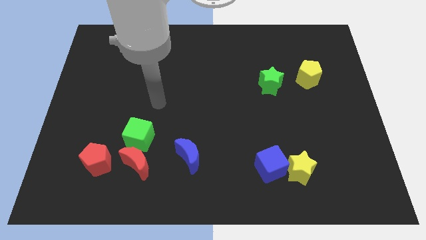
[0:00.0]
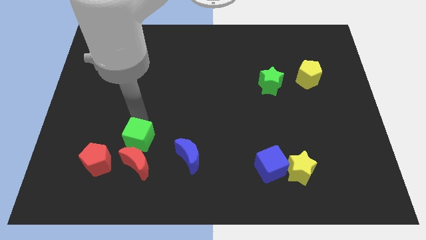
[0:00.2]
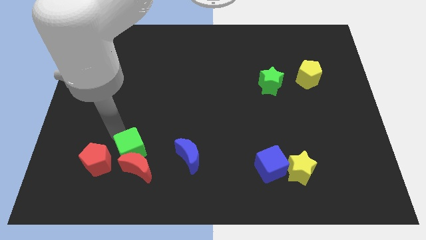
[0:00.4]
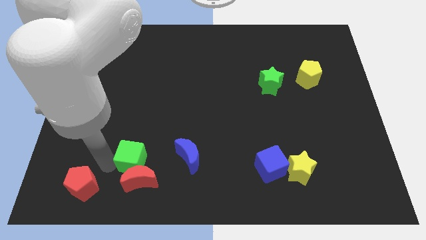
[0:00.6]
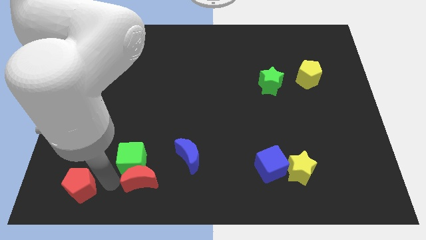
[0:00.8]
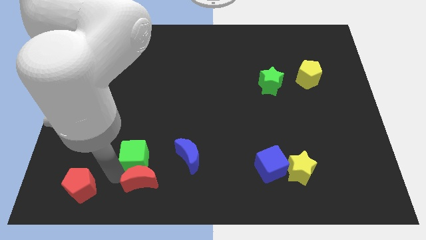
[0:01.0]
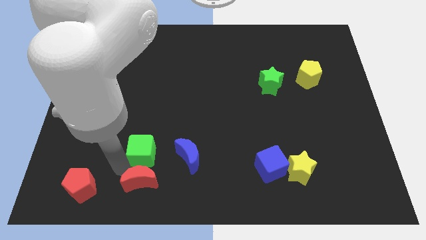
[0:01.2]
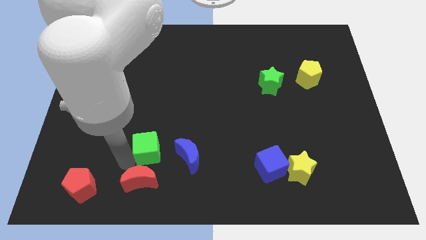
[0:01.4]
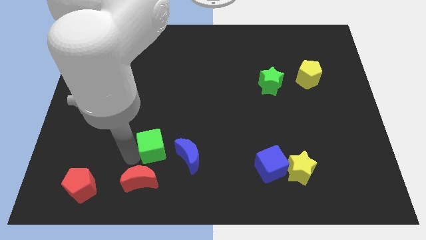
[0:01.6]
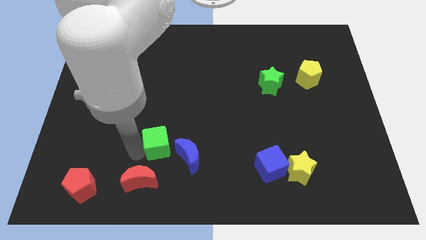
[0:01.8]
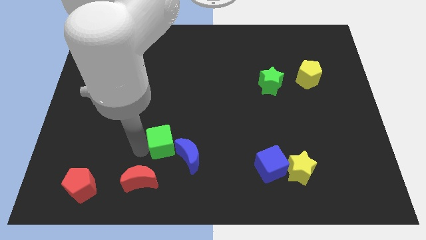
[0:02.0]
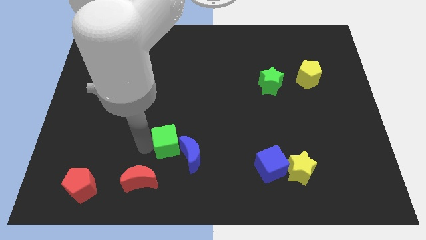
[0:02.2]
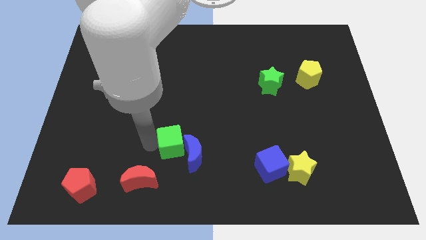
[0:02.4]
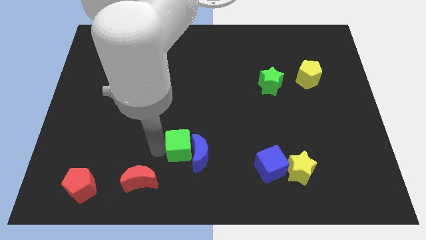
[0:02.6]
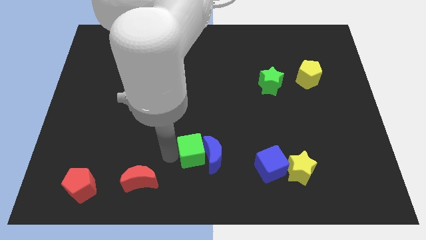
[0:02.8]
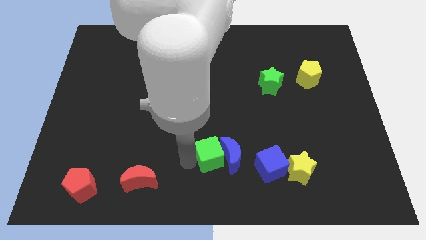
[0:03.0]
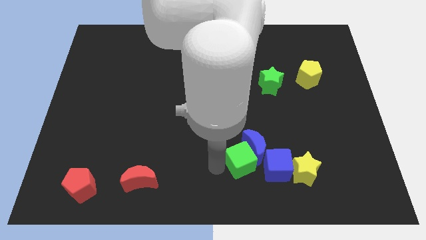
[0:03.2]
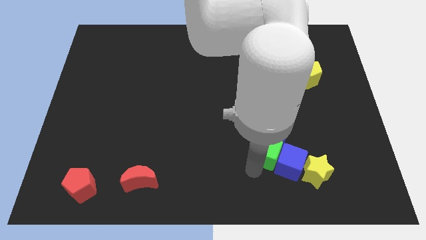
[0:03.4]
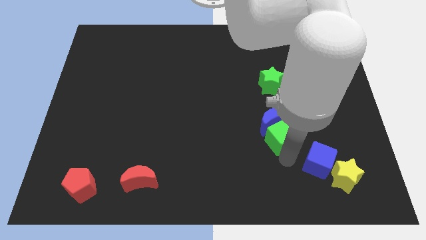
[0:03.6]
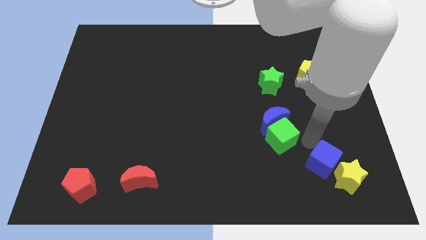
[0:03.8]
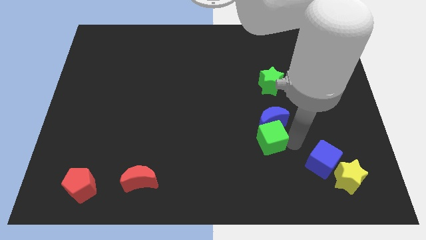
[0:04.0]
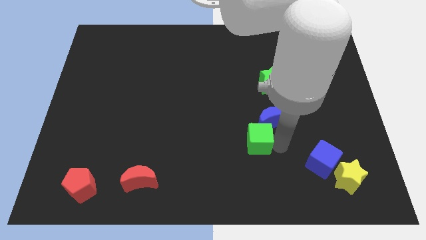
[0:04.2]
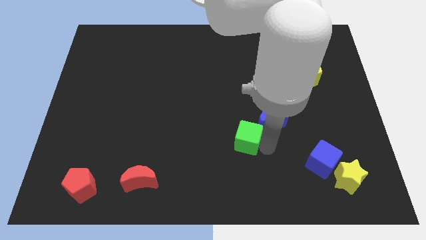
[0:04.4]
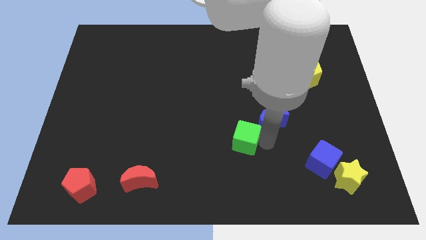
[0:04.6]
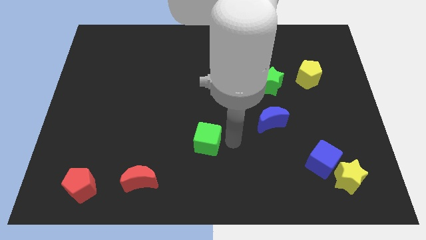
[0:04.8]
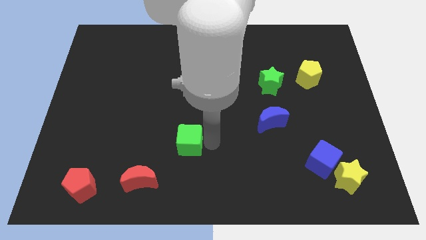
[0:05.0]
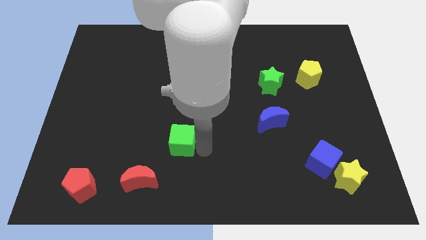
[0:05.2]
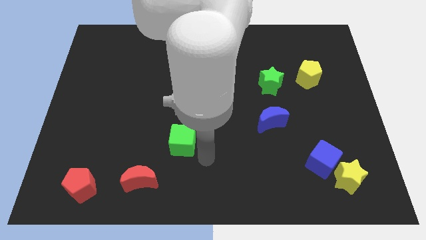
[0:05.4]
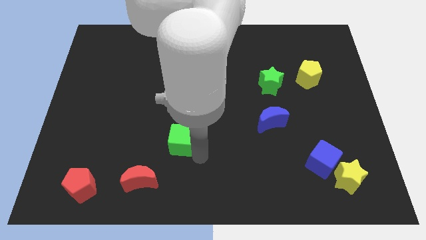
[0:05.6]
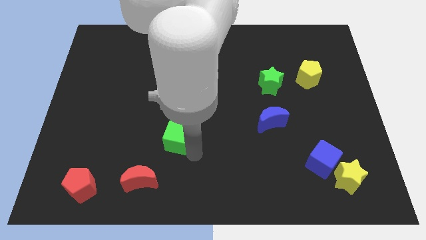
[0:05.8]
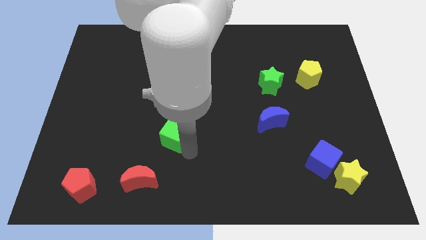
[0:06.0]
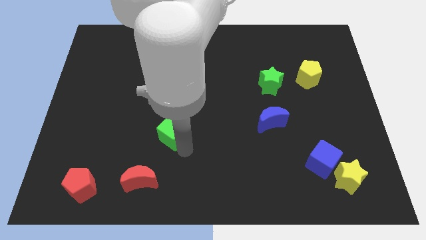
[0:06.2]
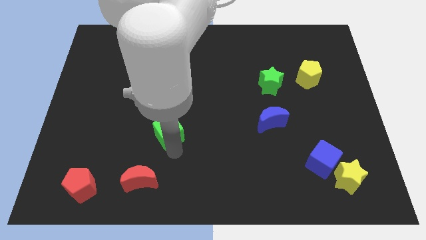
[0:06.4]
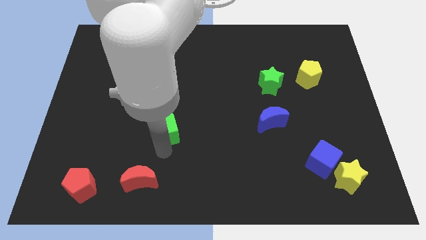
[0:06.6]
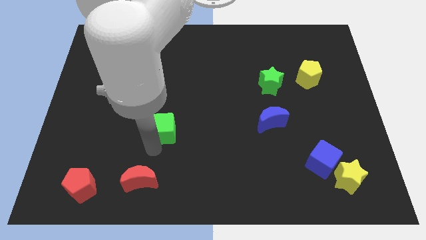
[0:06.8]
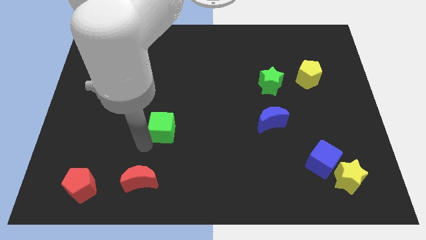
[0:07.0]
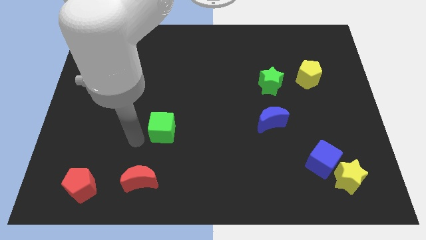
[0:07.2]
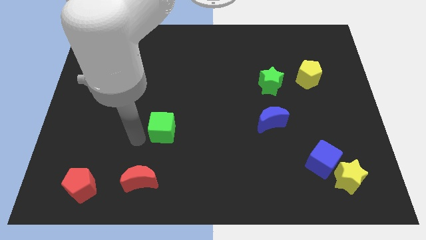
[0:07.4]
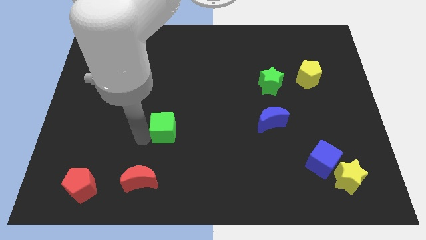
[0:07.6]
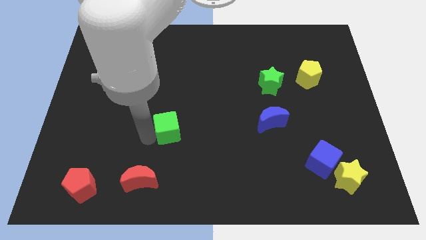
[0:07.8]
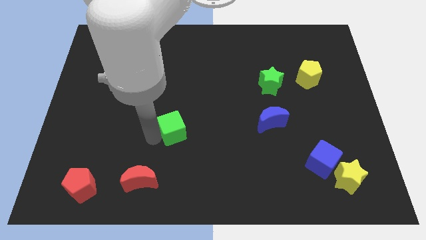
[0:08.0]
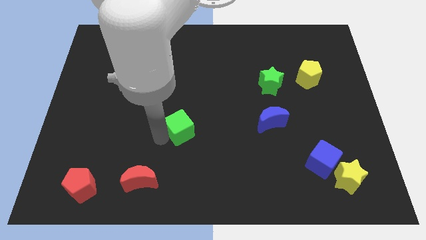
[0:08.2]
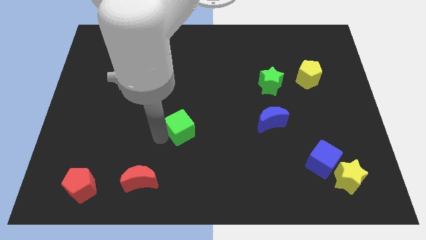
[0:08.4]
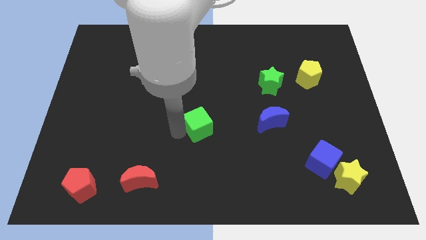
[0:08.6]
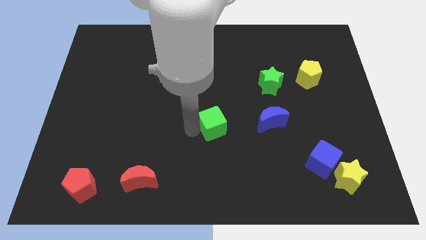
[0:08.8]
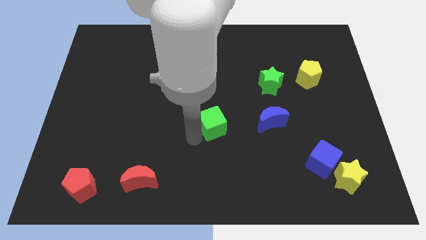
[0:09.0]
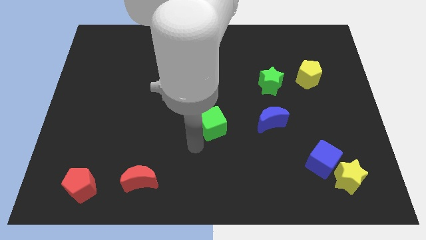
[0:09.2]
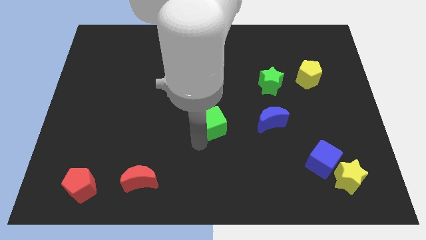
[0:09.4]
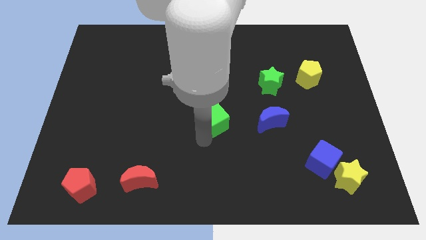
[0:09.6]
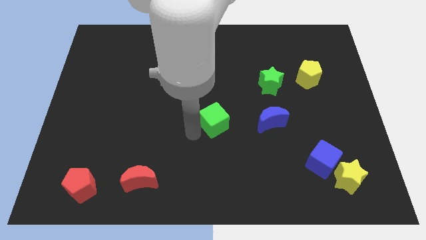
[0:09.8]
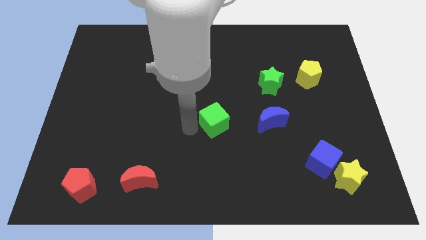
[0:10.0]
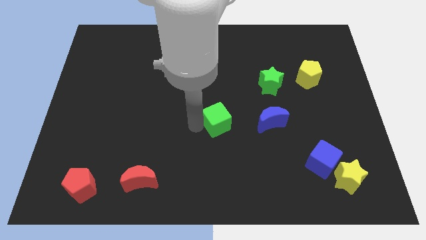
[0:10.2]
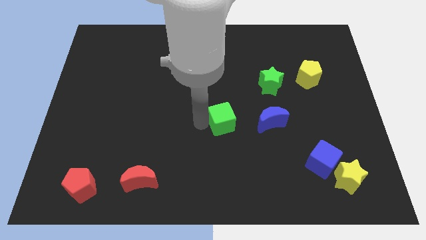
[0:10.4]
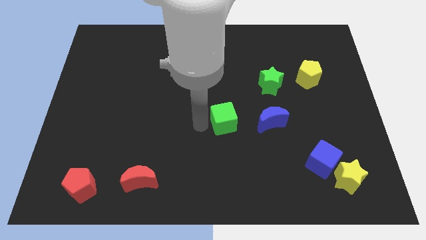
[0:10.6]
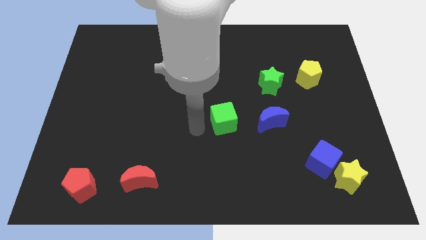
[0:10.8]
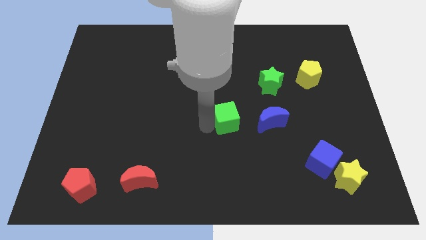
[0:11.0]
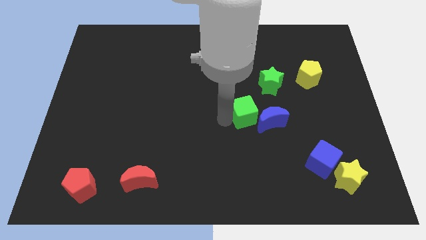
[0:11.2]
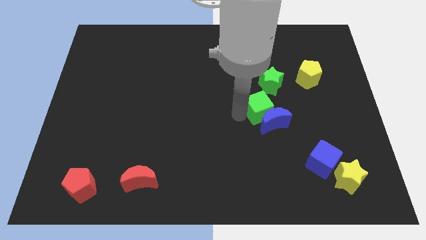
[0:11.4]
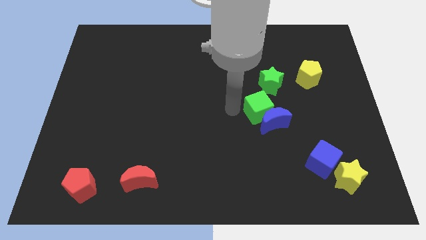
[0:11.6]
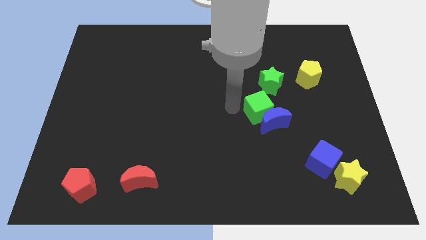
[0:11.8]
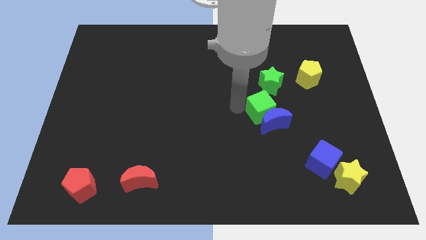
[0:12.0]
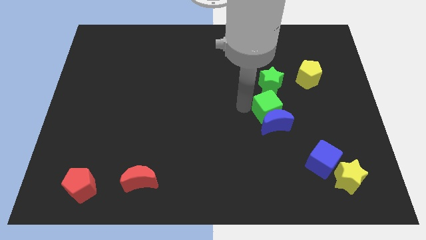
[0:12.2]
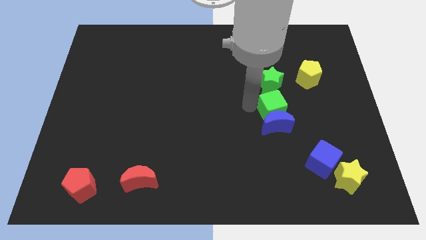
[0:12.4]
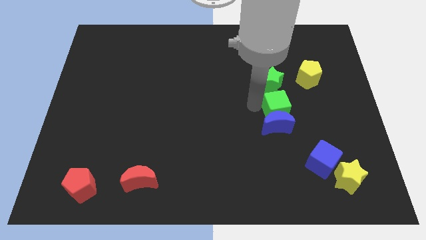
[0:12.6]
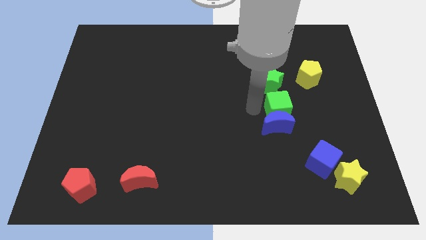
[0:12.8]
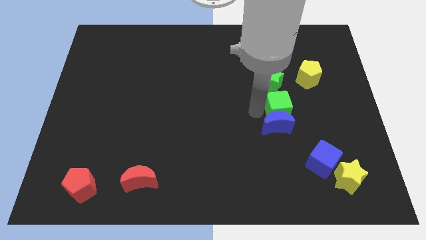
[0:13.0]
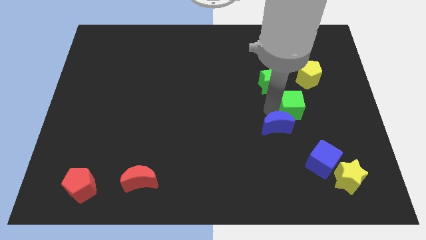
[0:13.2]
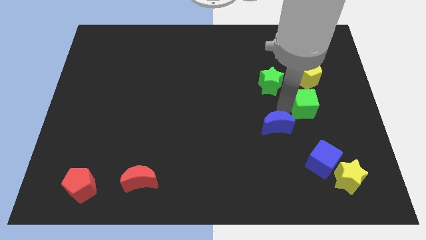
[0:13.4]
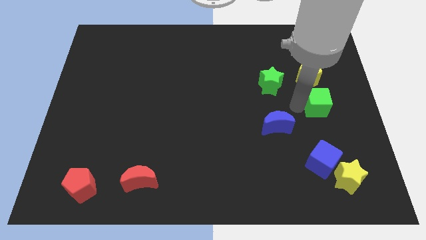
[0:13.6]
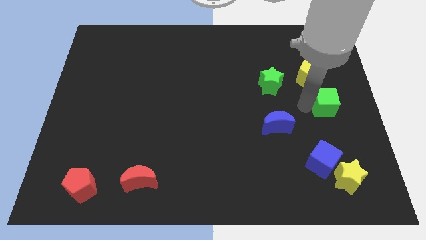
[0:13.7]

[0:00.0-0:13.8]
push the green cube to the center right

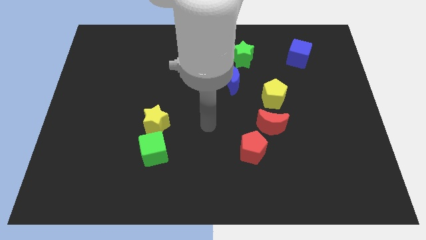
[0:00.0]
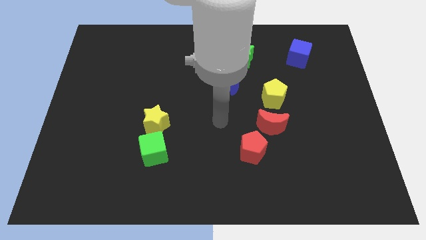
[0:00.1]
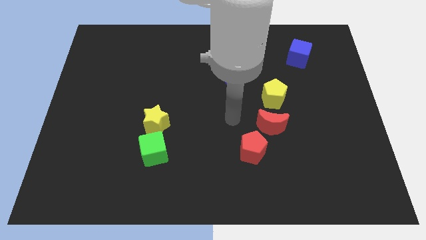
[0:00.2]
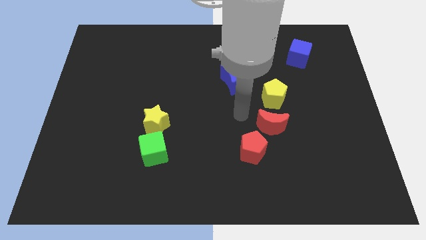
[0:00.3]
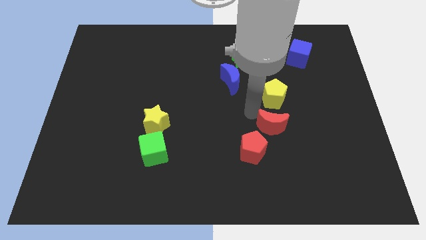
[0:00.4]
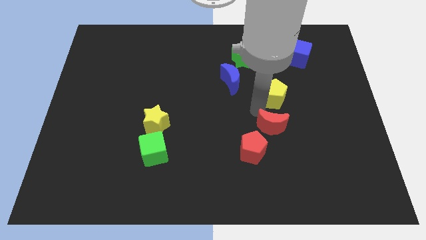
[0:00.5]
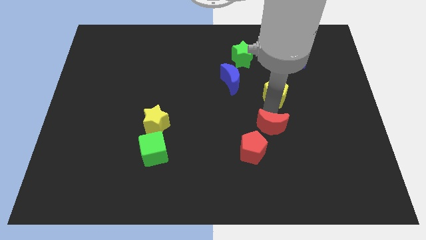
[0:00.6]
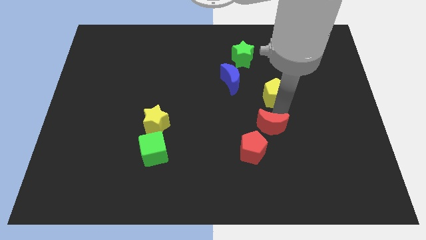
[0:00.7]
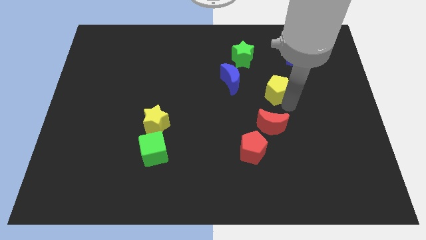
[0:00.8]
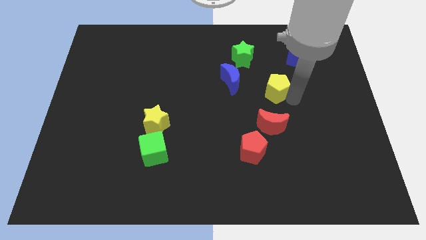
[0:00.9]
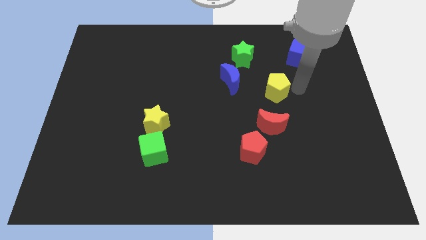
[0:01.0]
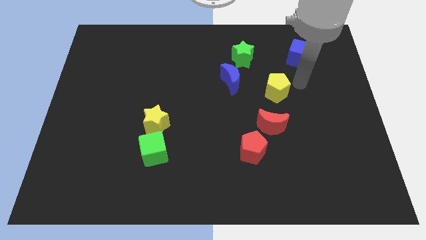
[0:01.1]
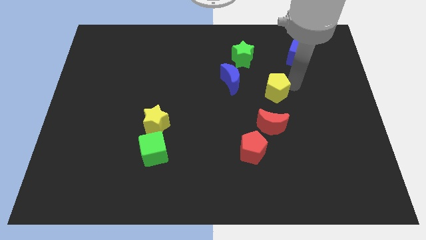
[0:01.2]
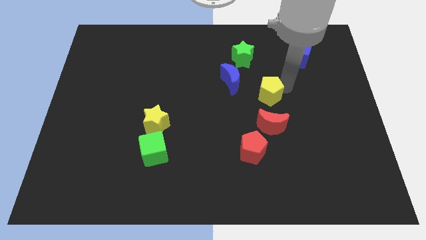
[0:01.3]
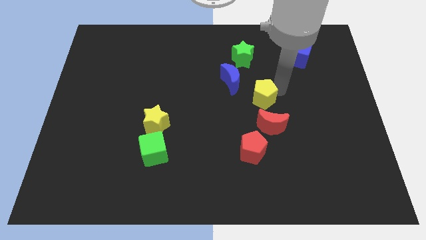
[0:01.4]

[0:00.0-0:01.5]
push the yellow pentagon to the middle of the board
